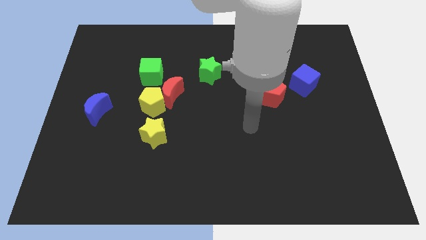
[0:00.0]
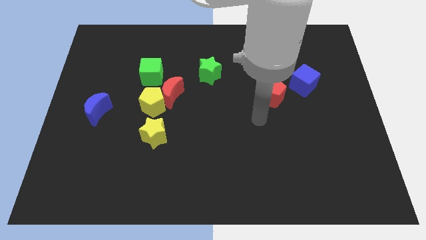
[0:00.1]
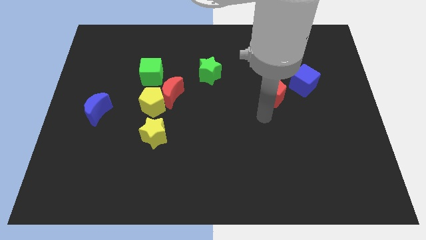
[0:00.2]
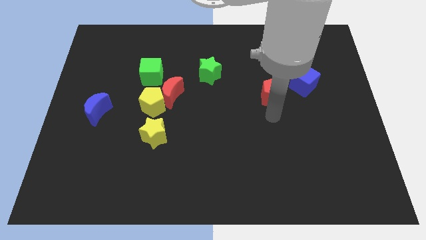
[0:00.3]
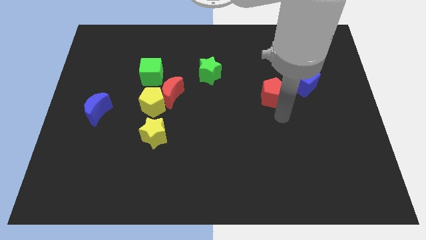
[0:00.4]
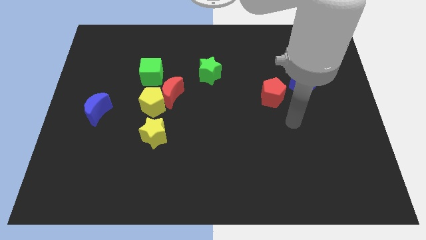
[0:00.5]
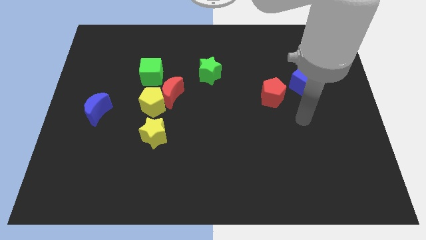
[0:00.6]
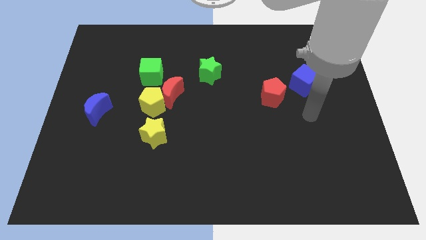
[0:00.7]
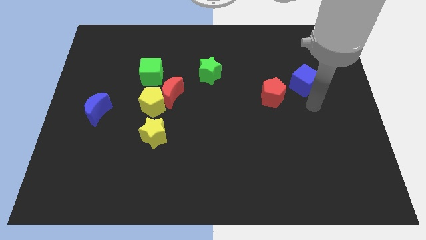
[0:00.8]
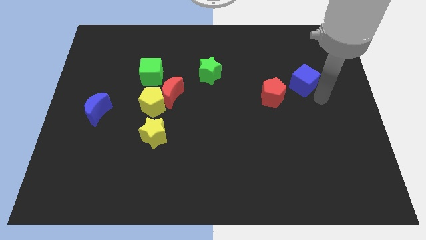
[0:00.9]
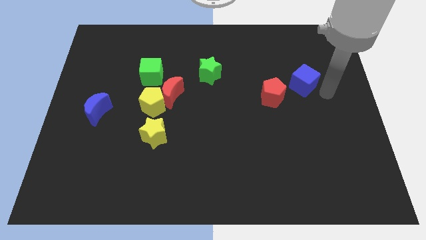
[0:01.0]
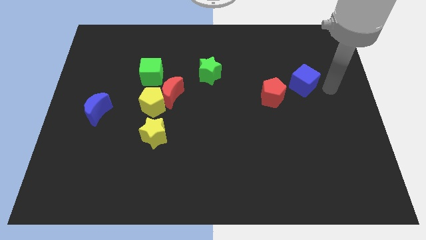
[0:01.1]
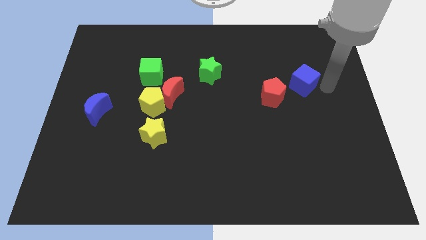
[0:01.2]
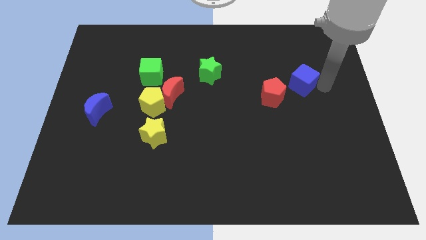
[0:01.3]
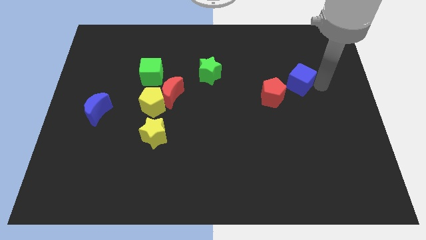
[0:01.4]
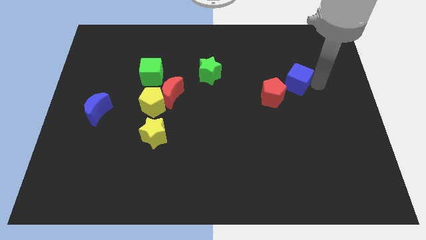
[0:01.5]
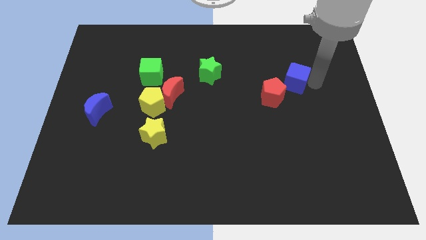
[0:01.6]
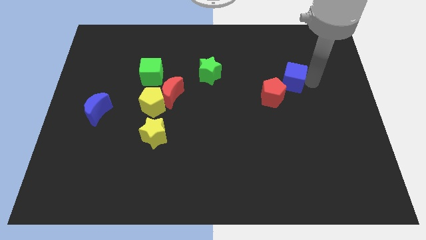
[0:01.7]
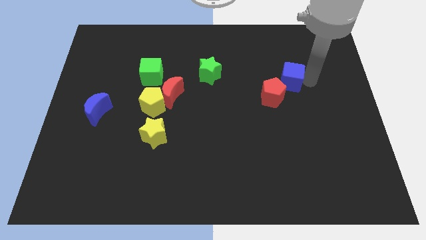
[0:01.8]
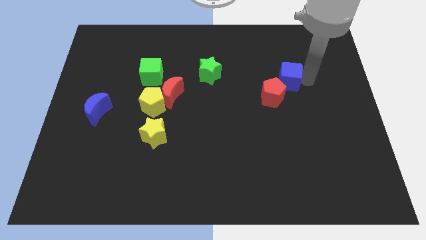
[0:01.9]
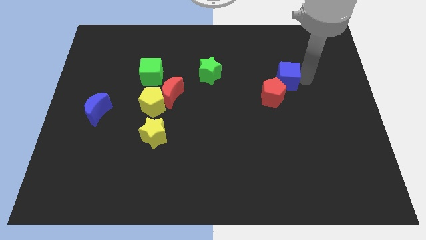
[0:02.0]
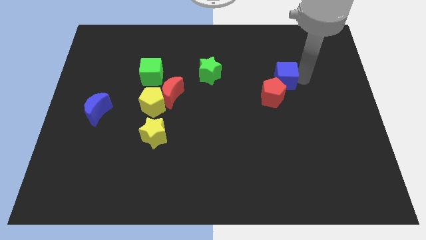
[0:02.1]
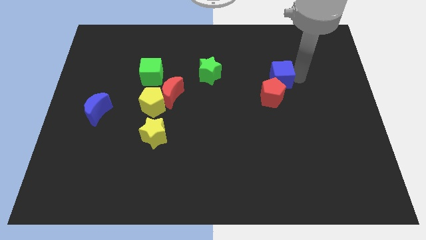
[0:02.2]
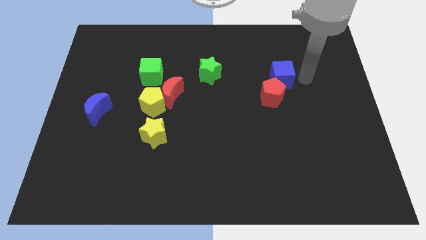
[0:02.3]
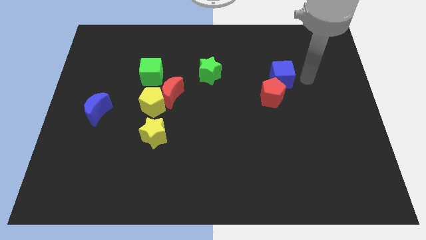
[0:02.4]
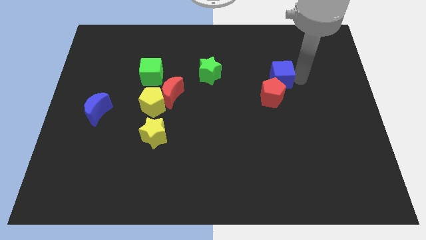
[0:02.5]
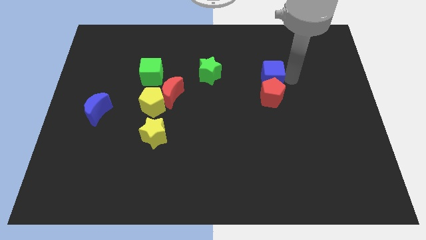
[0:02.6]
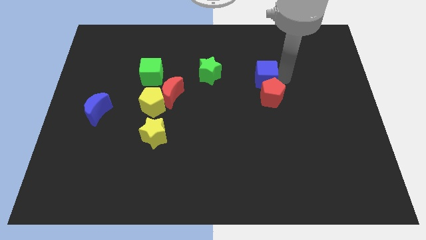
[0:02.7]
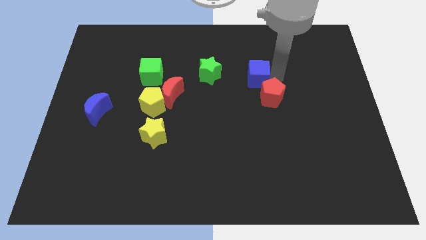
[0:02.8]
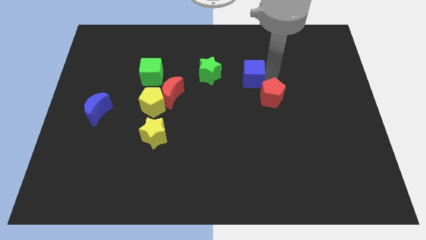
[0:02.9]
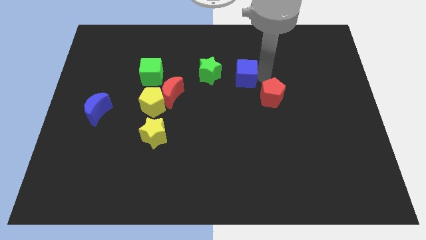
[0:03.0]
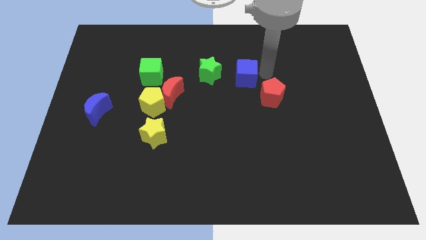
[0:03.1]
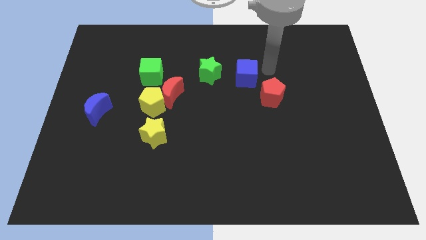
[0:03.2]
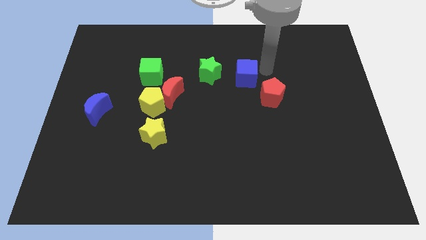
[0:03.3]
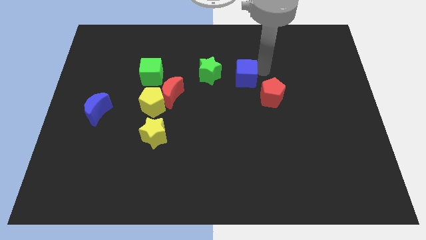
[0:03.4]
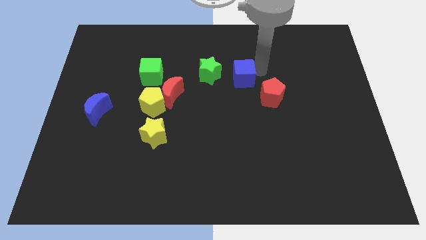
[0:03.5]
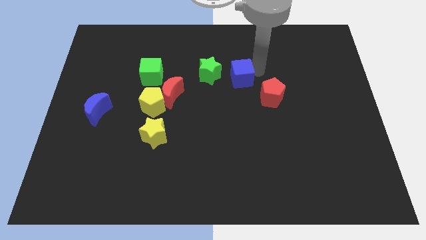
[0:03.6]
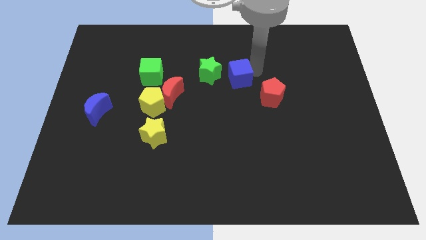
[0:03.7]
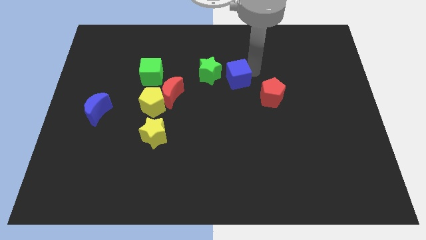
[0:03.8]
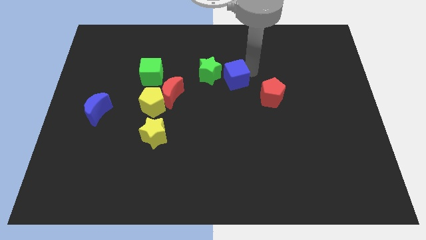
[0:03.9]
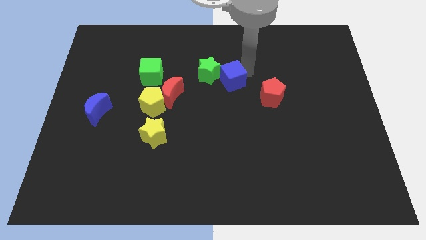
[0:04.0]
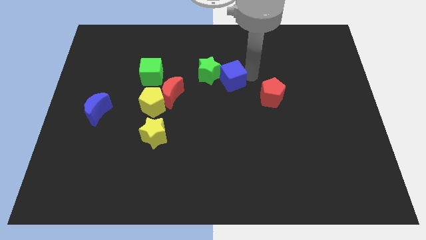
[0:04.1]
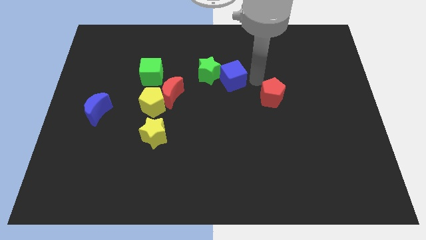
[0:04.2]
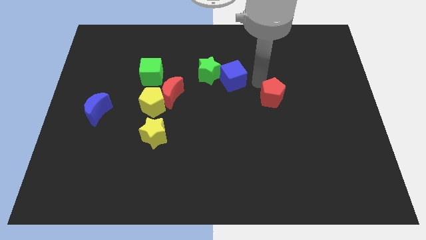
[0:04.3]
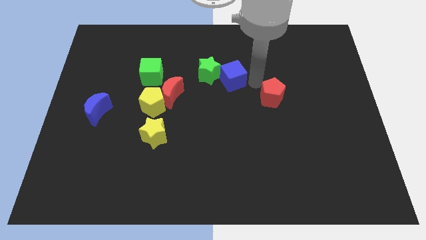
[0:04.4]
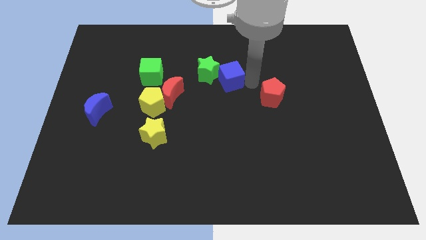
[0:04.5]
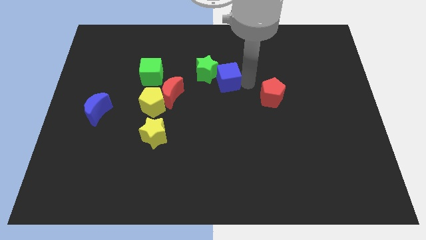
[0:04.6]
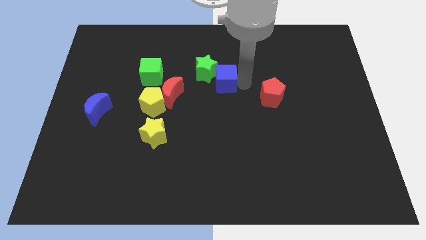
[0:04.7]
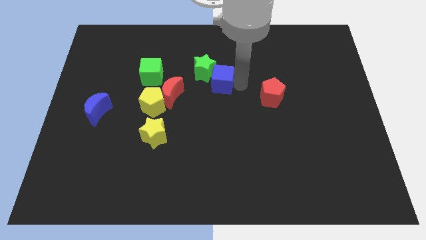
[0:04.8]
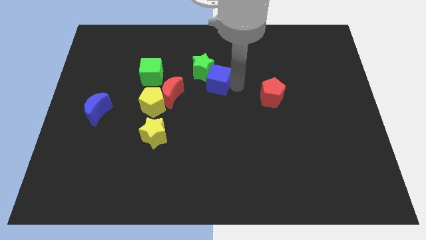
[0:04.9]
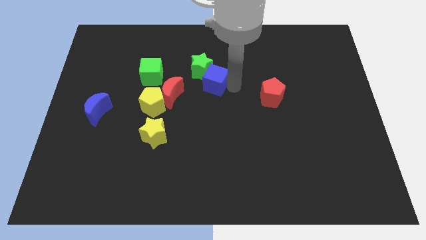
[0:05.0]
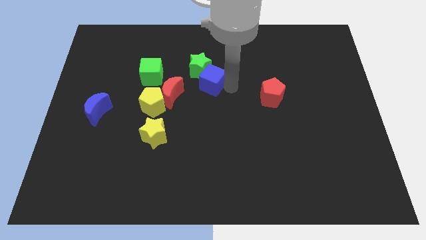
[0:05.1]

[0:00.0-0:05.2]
push the blue cube just right of the green cube

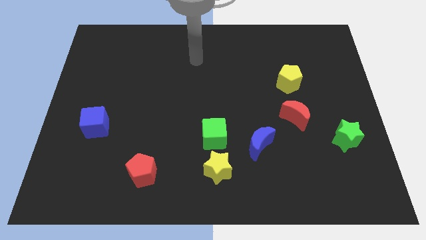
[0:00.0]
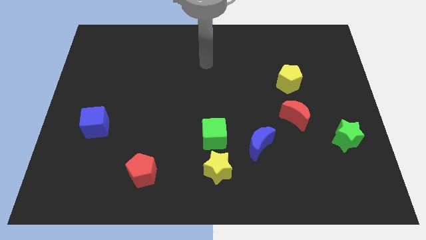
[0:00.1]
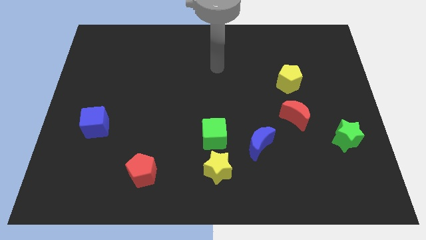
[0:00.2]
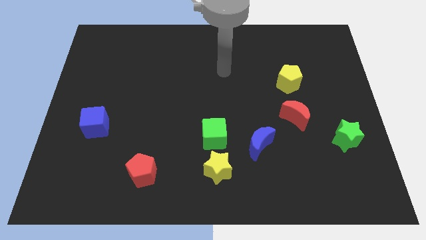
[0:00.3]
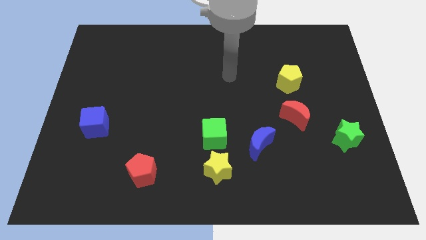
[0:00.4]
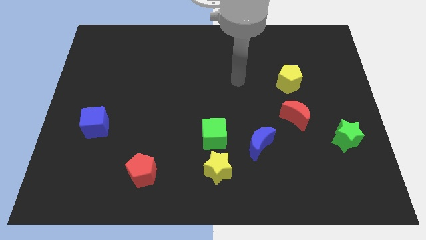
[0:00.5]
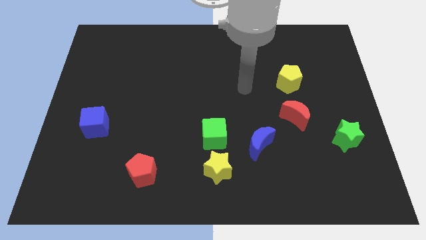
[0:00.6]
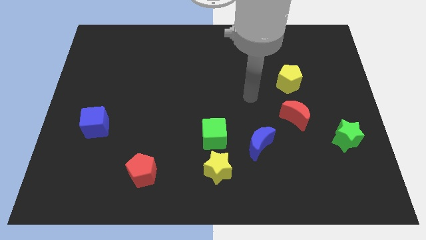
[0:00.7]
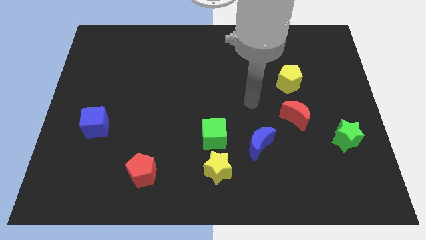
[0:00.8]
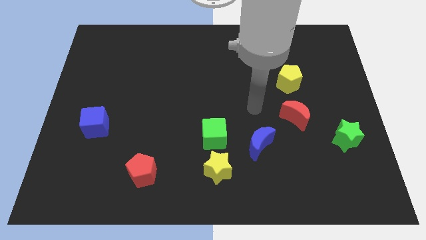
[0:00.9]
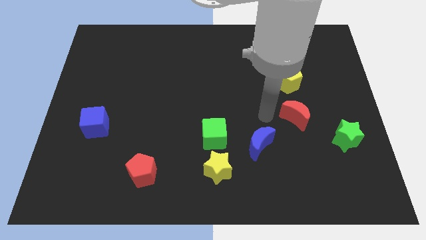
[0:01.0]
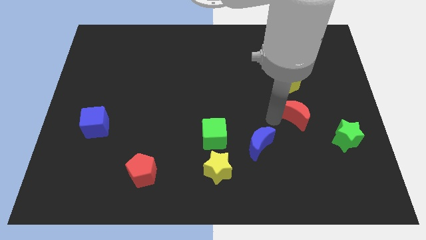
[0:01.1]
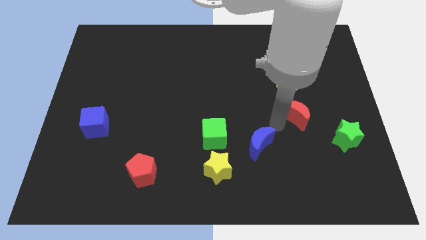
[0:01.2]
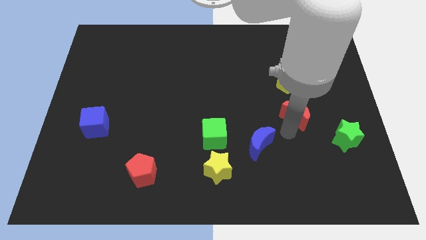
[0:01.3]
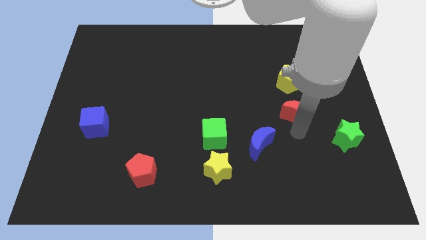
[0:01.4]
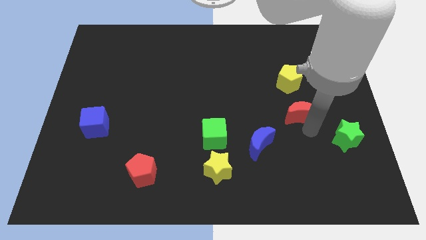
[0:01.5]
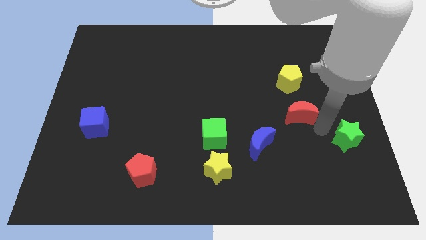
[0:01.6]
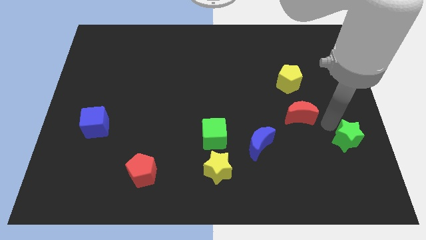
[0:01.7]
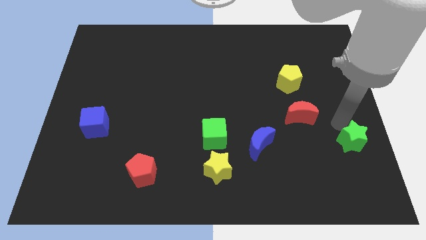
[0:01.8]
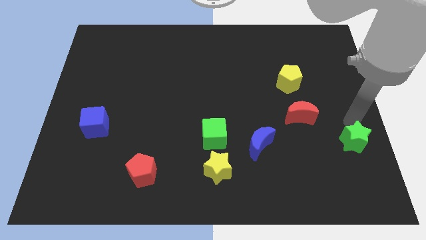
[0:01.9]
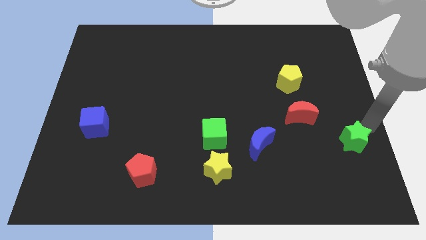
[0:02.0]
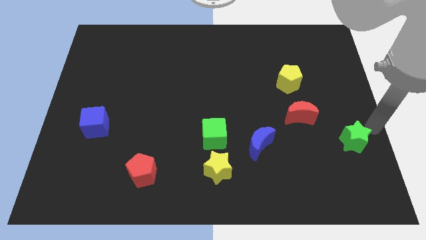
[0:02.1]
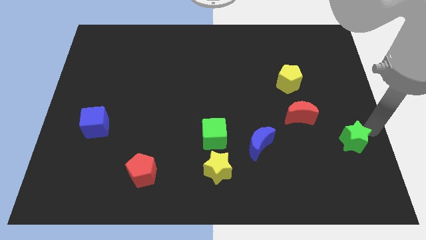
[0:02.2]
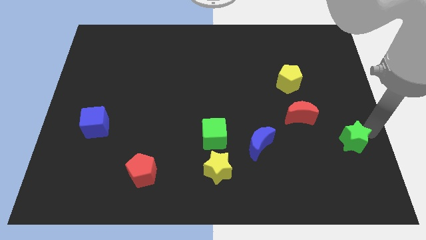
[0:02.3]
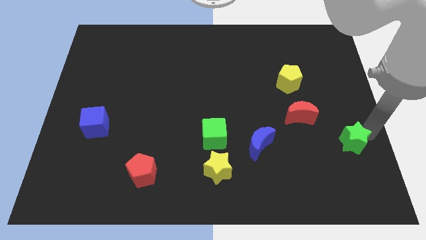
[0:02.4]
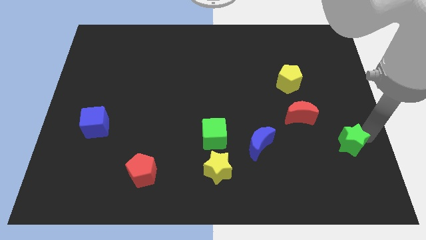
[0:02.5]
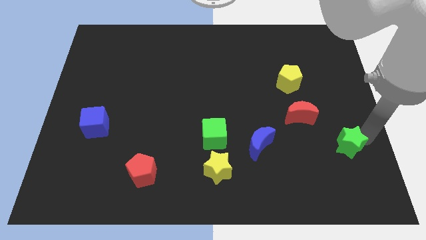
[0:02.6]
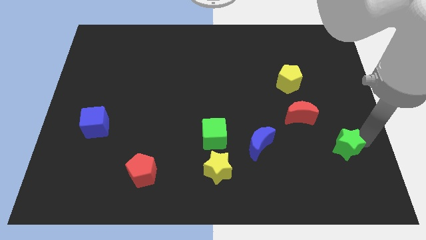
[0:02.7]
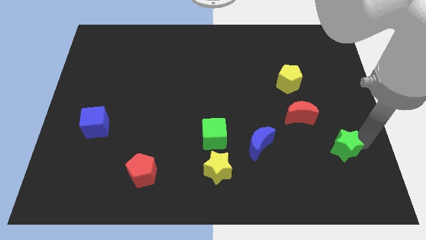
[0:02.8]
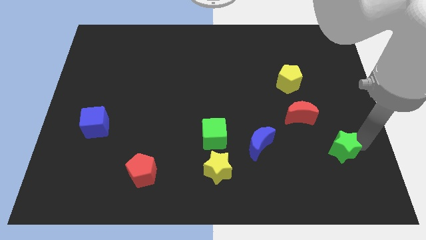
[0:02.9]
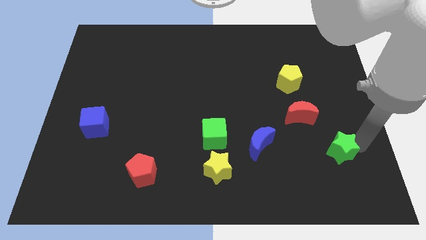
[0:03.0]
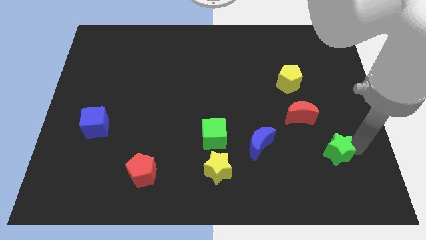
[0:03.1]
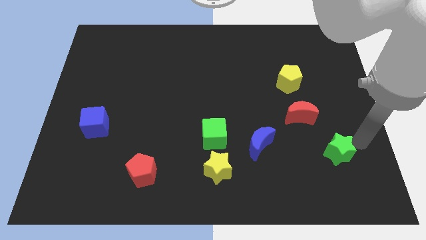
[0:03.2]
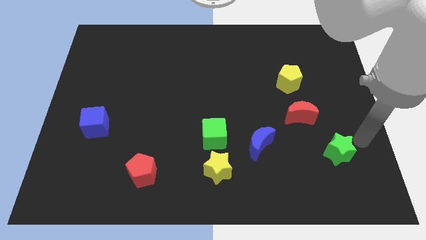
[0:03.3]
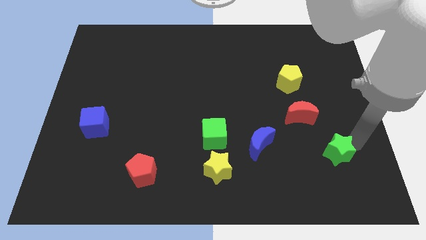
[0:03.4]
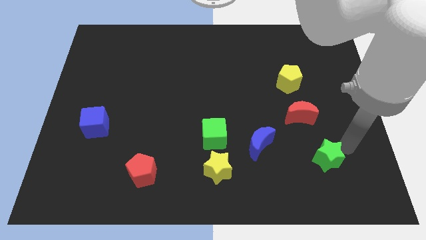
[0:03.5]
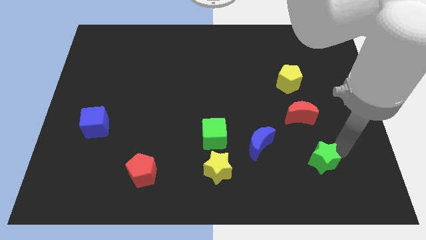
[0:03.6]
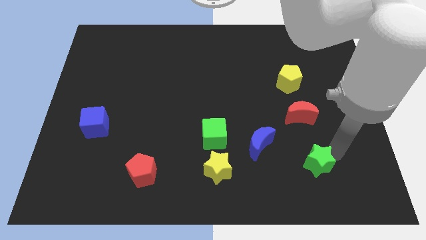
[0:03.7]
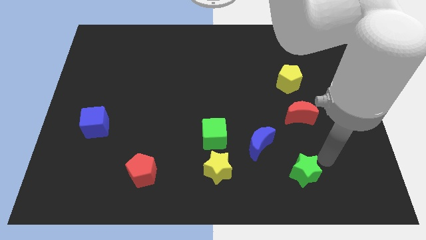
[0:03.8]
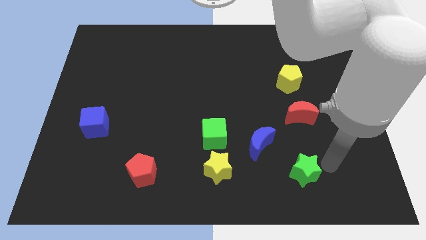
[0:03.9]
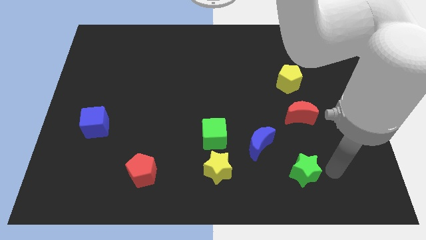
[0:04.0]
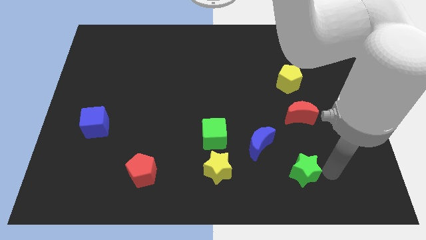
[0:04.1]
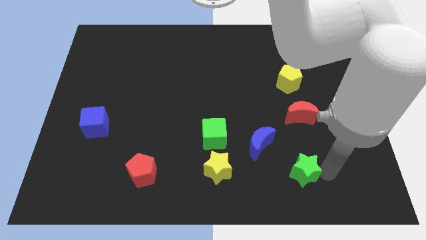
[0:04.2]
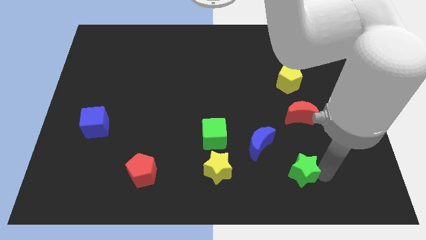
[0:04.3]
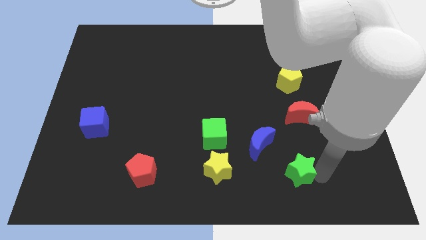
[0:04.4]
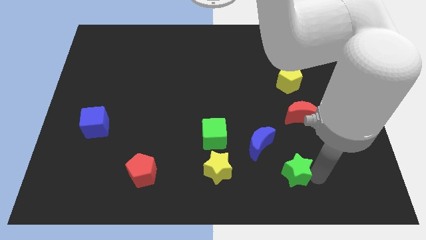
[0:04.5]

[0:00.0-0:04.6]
move the green star just right of the yellow star
